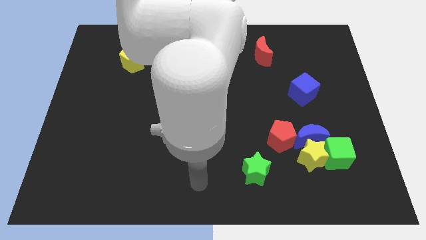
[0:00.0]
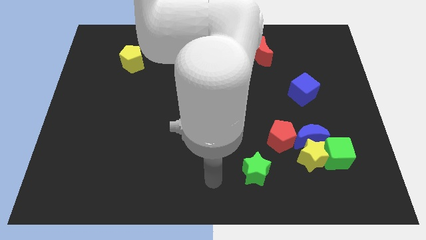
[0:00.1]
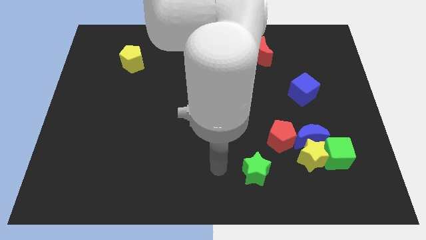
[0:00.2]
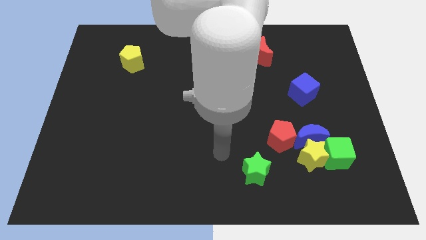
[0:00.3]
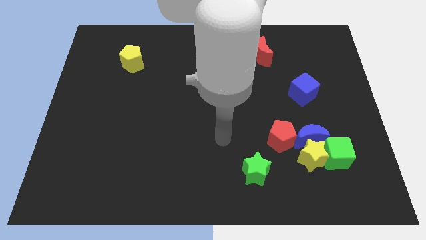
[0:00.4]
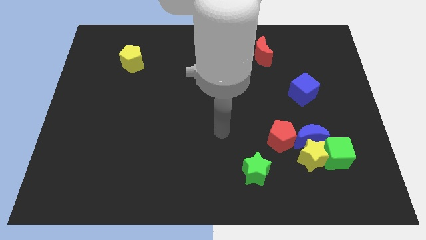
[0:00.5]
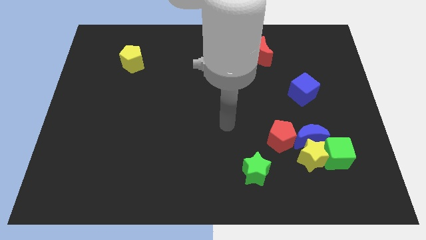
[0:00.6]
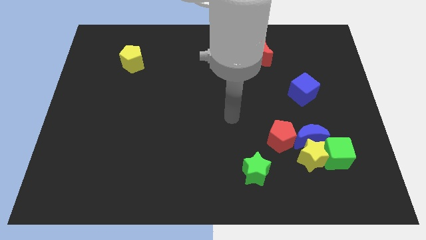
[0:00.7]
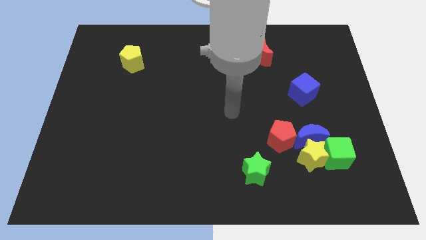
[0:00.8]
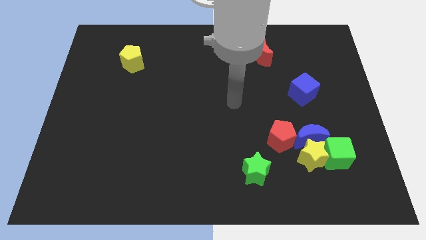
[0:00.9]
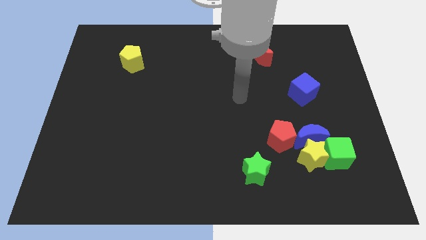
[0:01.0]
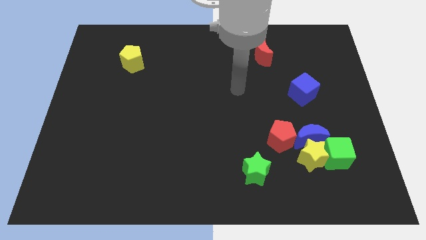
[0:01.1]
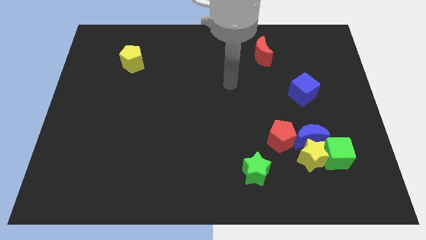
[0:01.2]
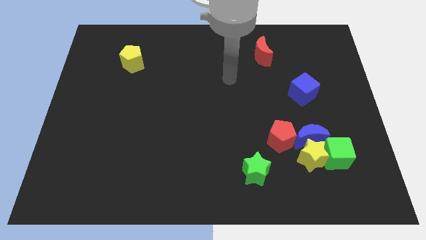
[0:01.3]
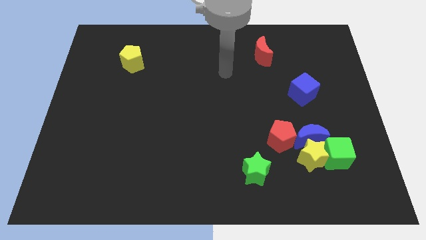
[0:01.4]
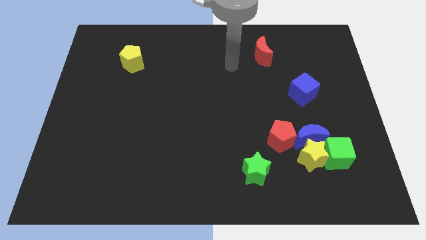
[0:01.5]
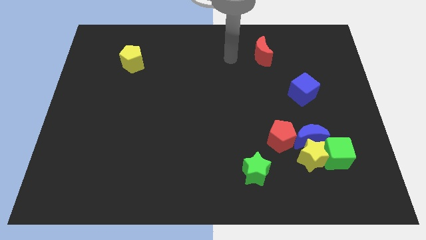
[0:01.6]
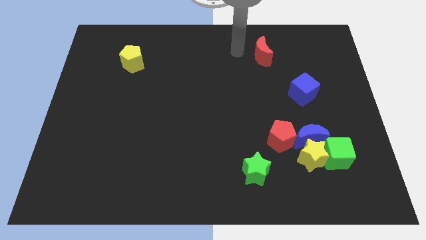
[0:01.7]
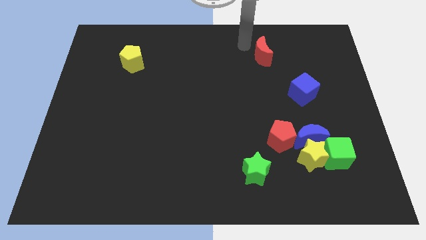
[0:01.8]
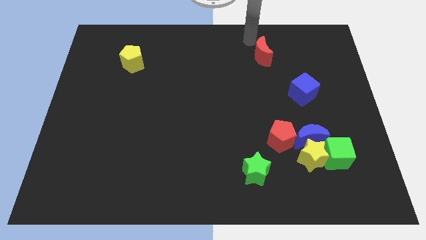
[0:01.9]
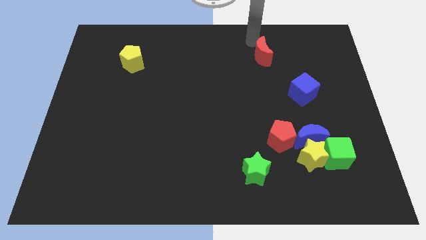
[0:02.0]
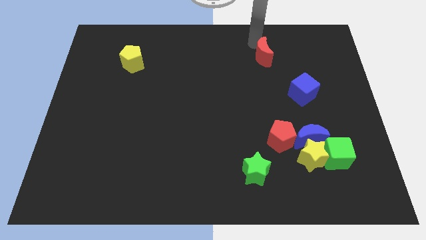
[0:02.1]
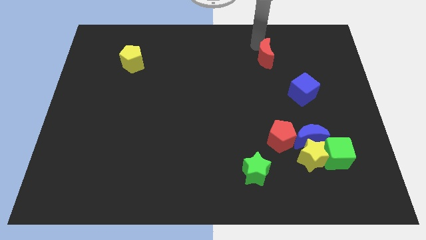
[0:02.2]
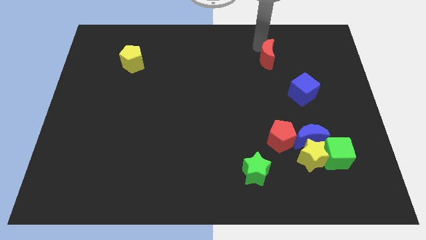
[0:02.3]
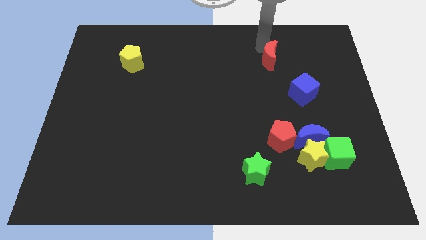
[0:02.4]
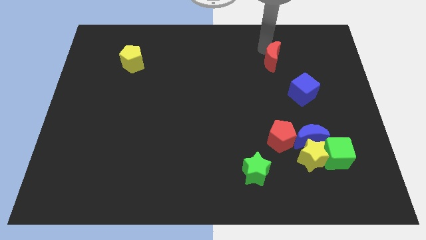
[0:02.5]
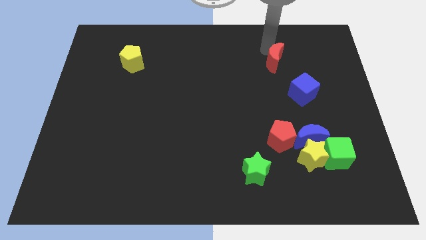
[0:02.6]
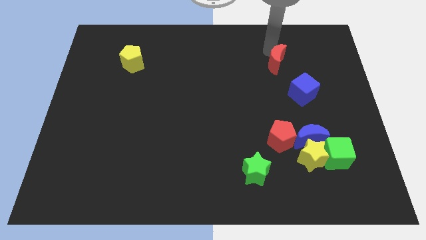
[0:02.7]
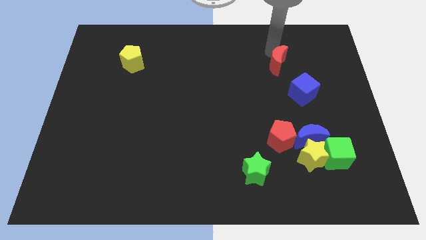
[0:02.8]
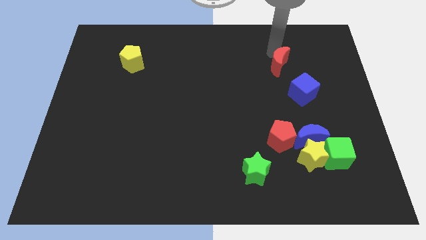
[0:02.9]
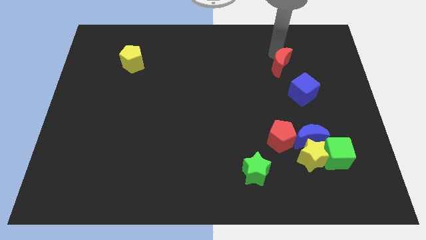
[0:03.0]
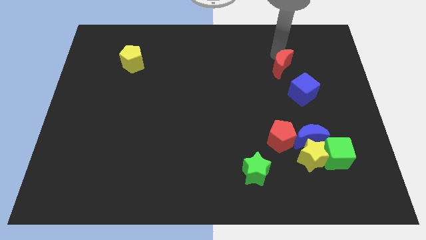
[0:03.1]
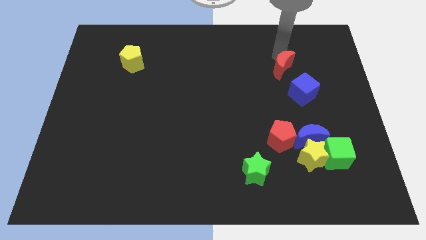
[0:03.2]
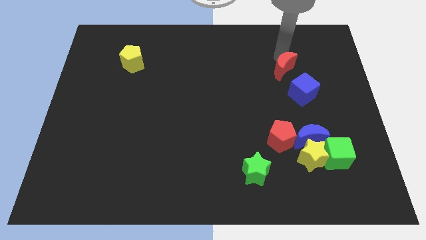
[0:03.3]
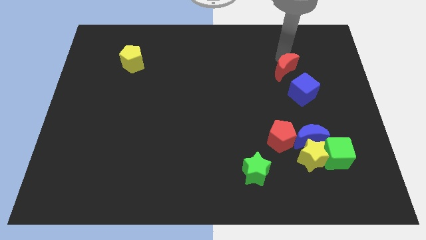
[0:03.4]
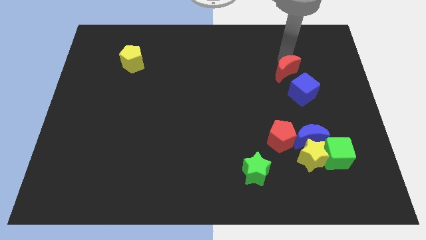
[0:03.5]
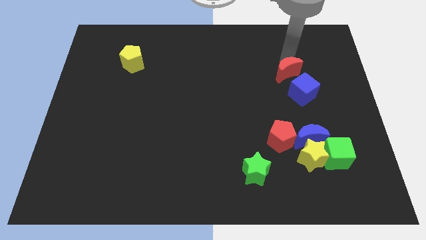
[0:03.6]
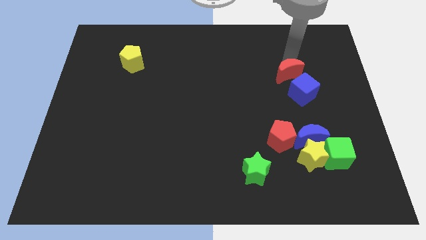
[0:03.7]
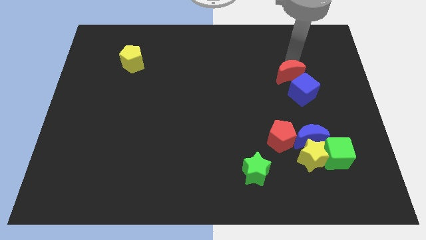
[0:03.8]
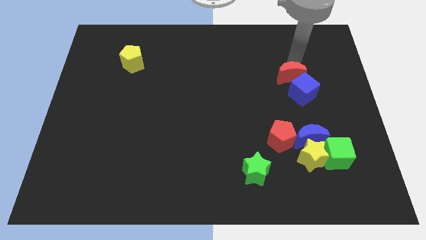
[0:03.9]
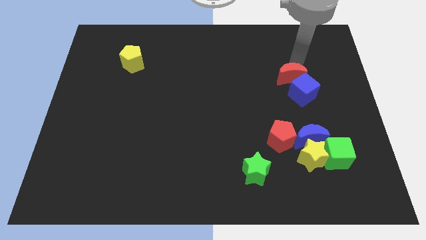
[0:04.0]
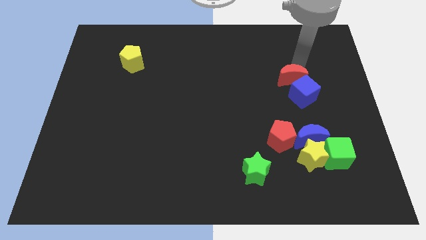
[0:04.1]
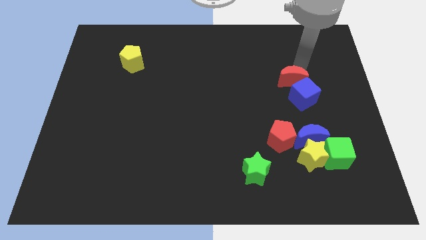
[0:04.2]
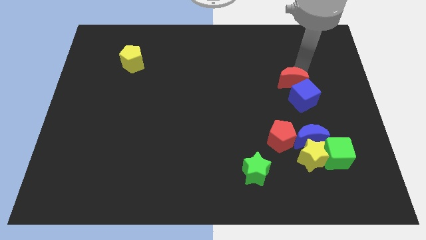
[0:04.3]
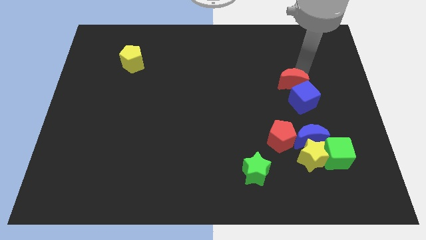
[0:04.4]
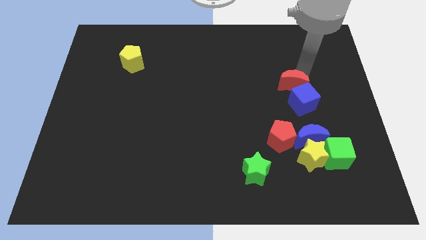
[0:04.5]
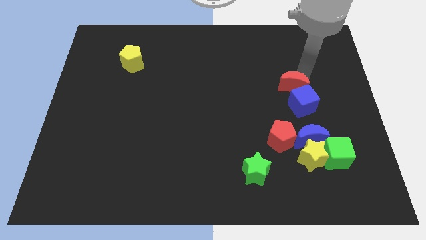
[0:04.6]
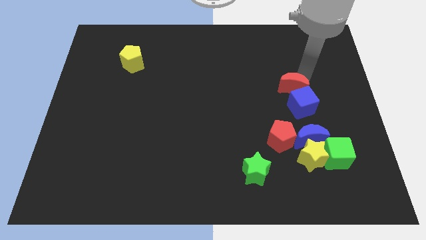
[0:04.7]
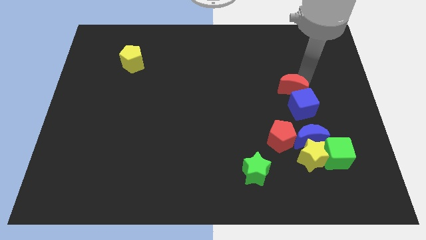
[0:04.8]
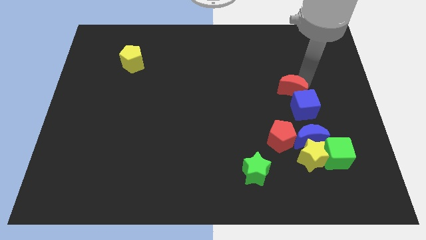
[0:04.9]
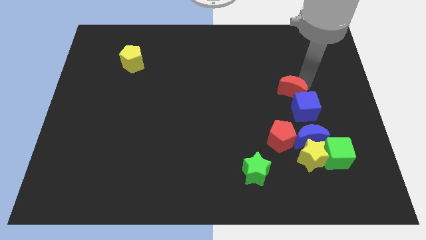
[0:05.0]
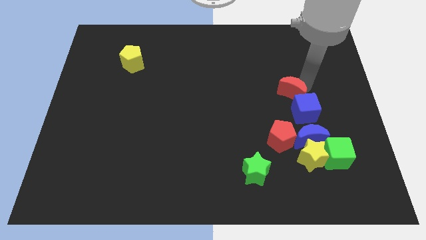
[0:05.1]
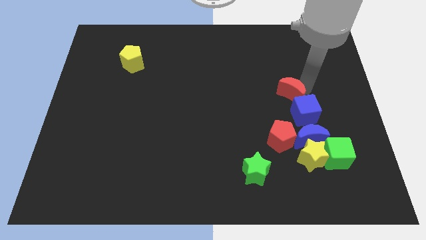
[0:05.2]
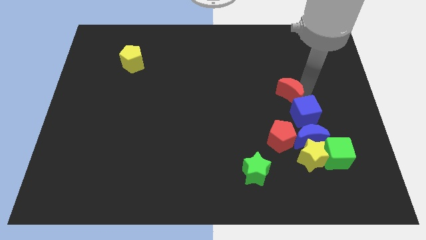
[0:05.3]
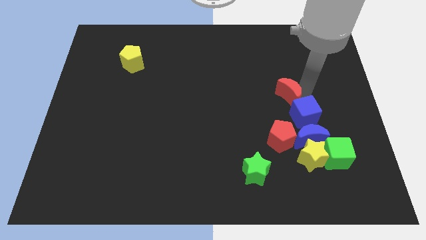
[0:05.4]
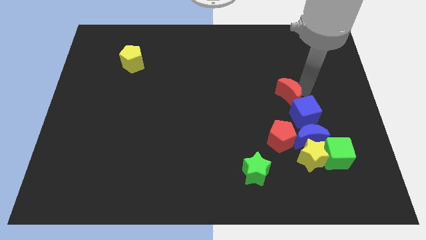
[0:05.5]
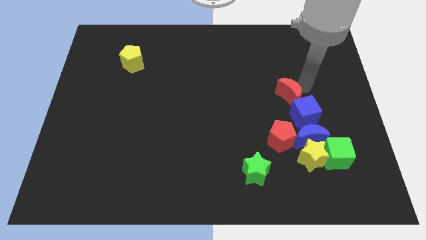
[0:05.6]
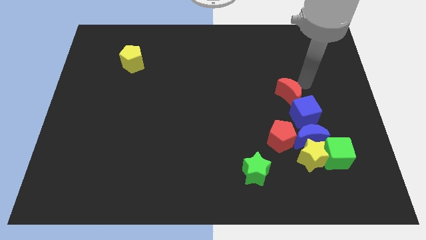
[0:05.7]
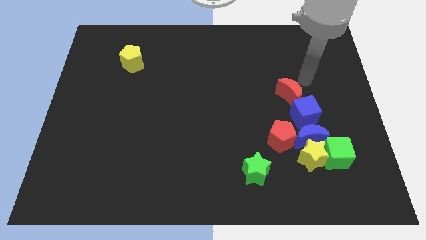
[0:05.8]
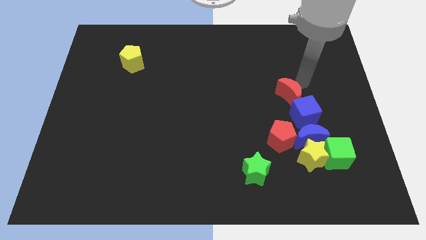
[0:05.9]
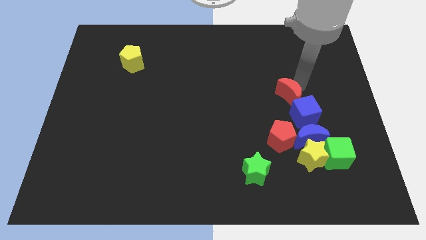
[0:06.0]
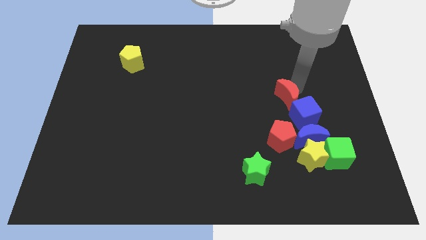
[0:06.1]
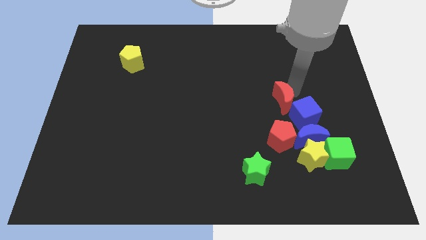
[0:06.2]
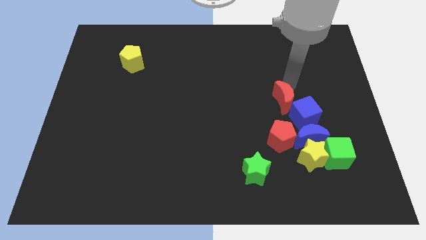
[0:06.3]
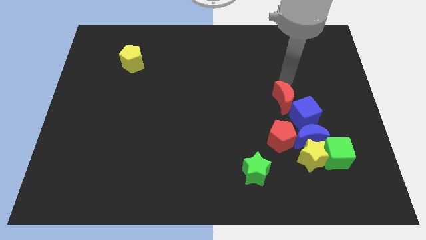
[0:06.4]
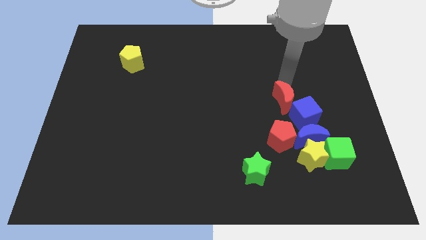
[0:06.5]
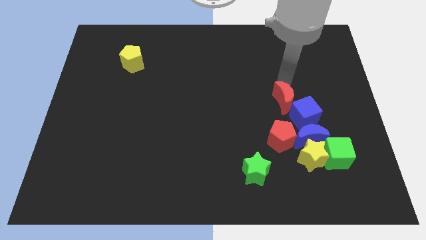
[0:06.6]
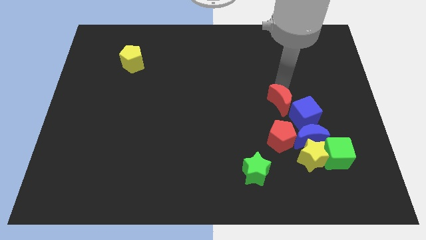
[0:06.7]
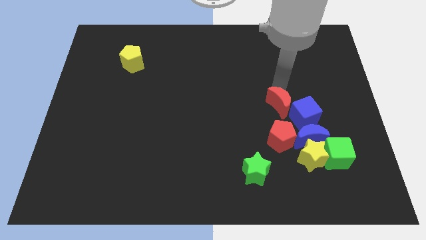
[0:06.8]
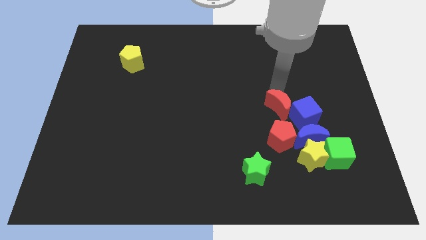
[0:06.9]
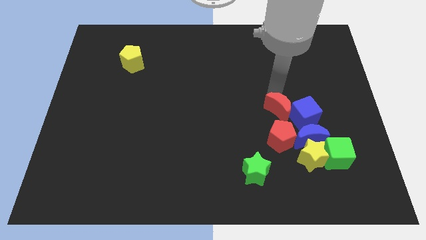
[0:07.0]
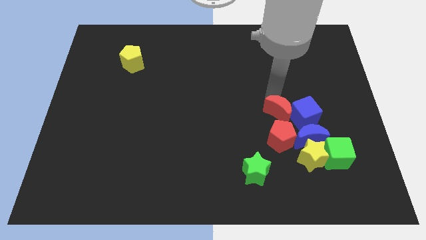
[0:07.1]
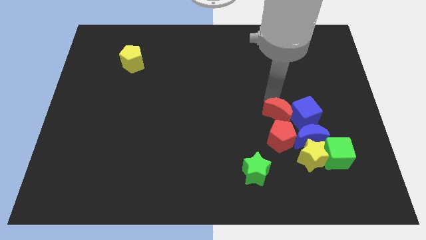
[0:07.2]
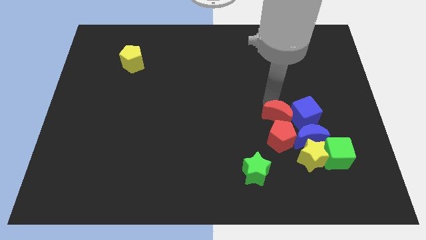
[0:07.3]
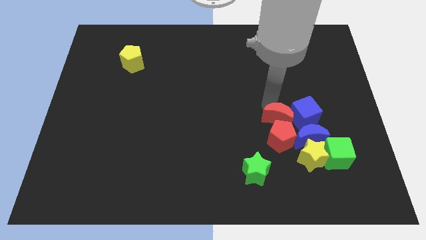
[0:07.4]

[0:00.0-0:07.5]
push the red moon close to the red pentagon
